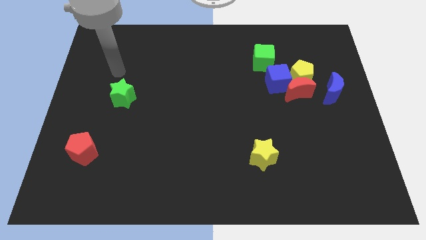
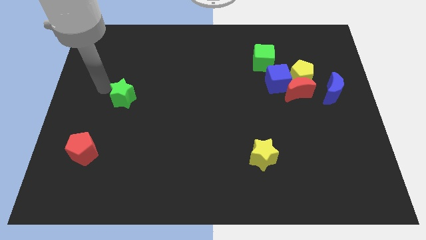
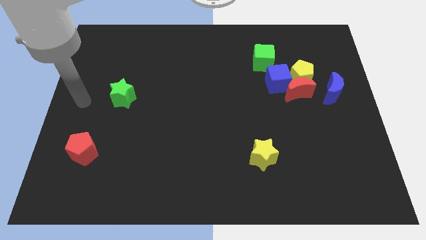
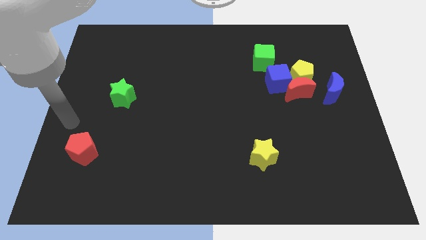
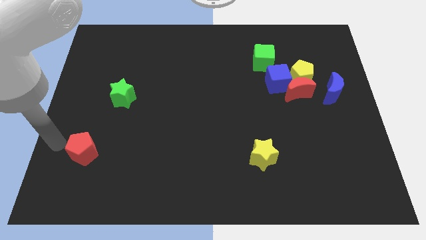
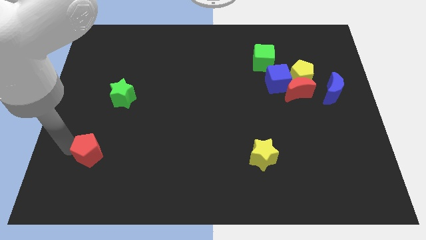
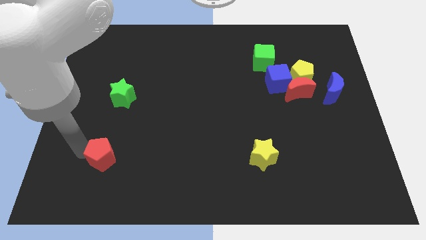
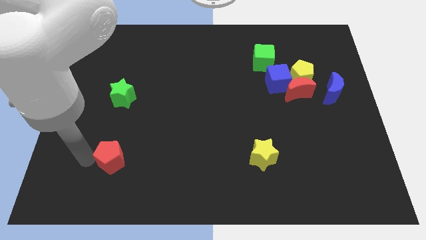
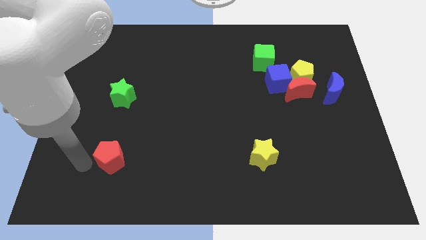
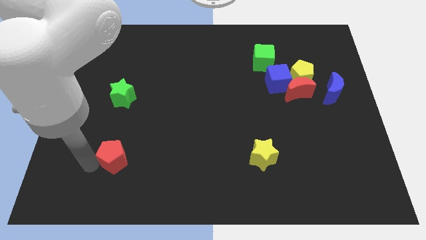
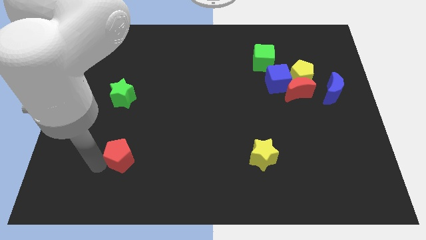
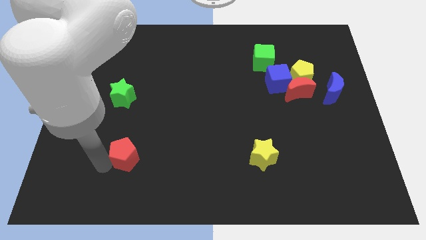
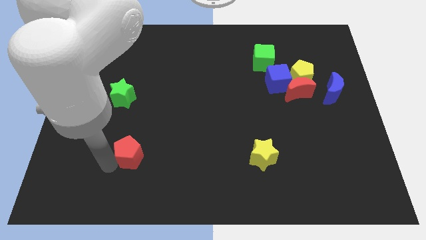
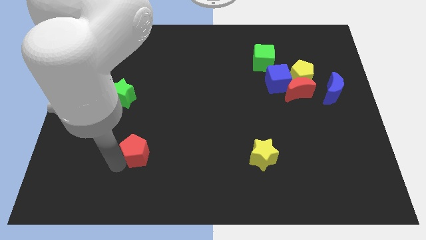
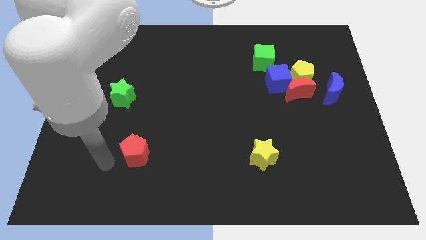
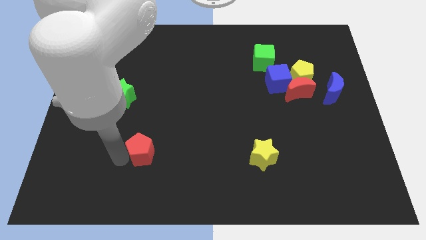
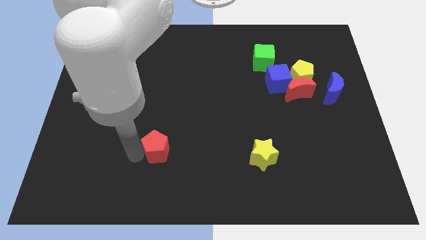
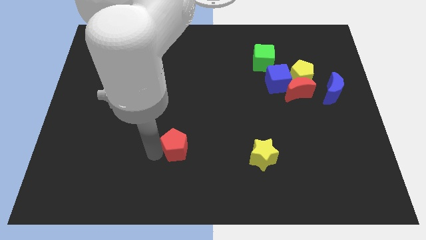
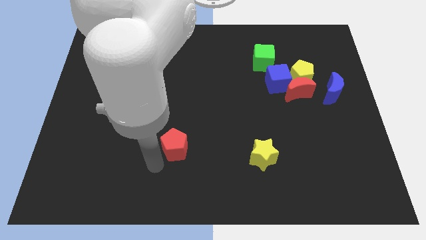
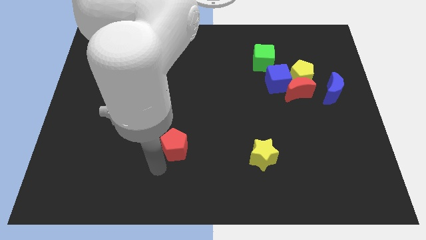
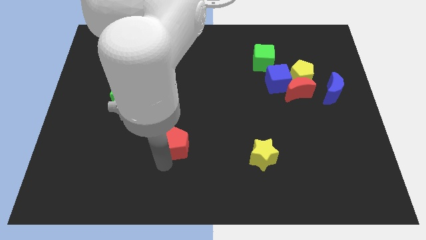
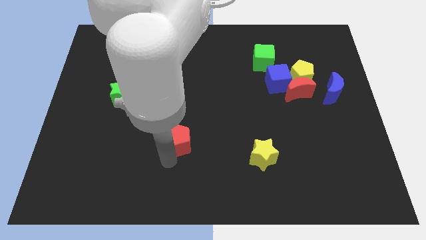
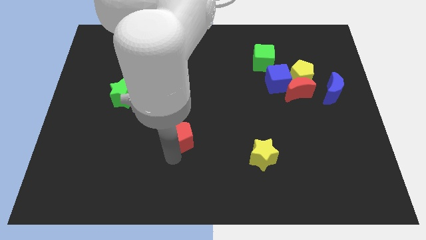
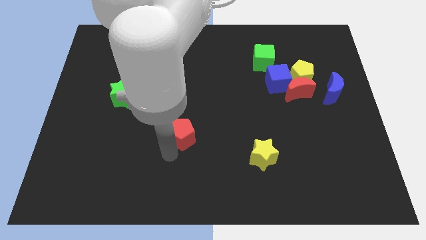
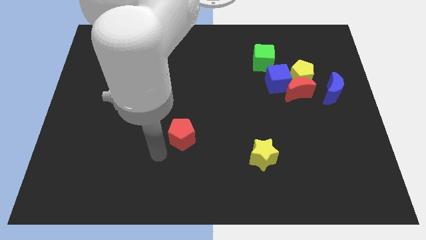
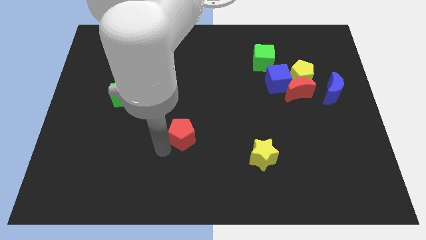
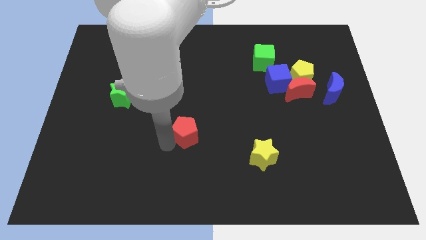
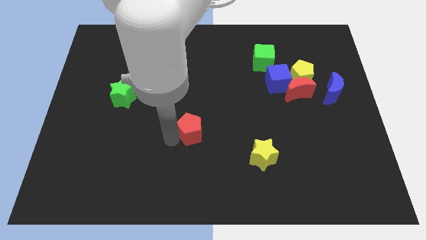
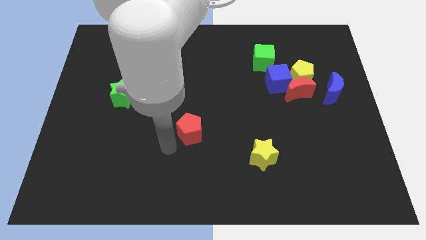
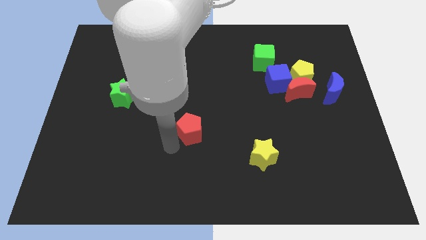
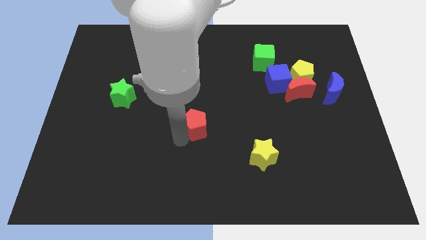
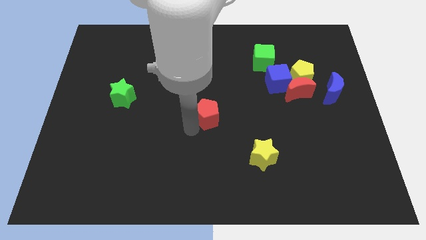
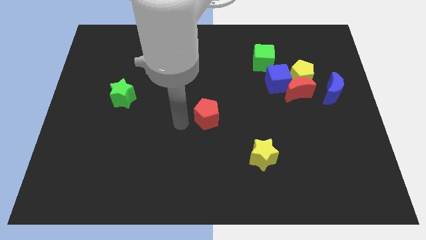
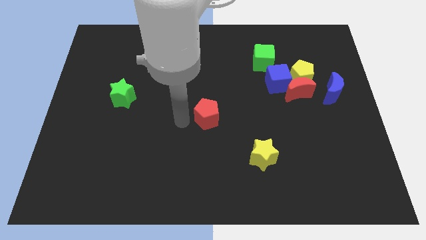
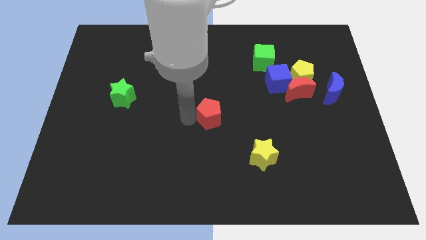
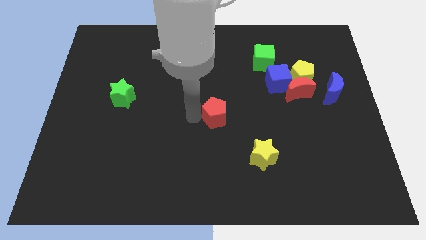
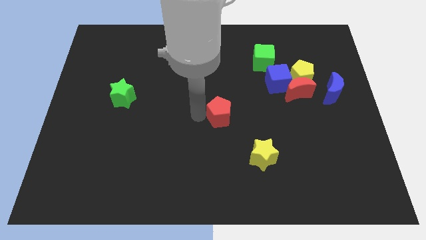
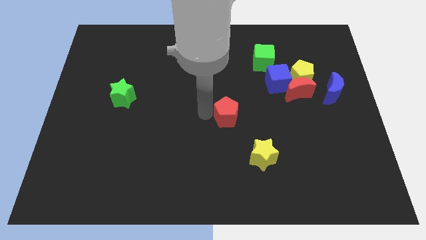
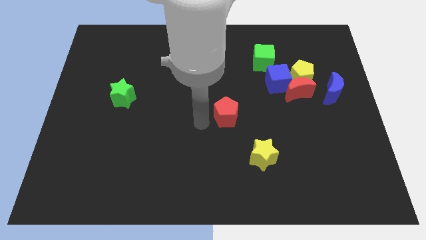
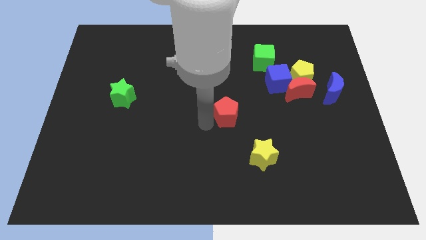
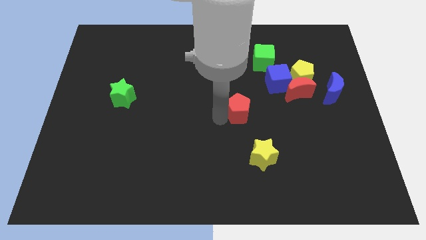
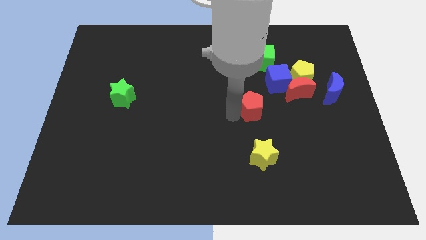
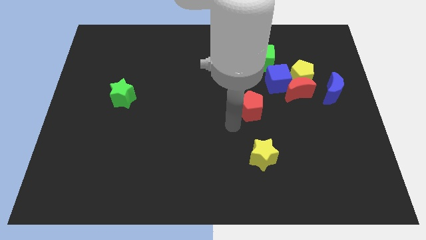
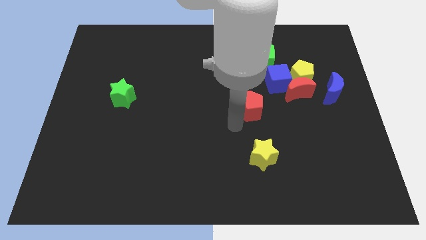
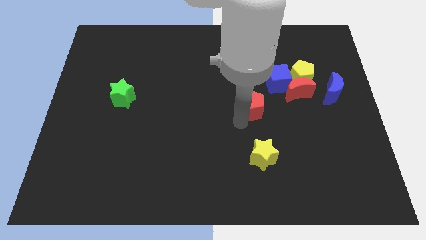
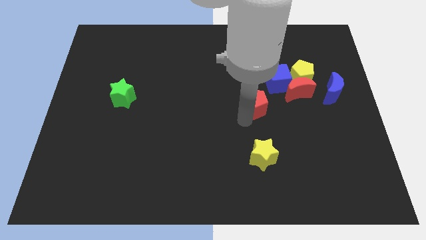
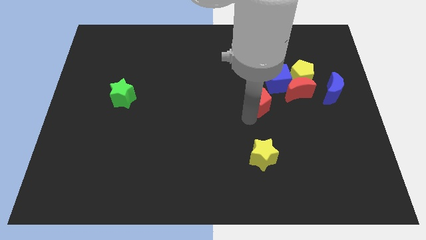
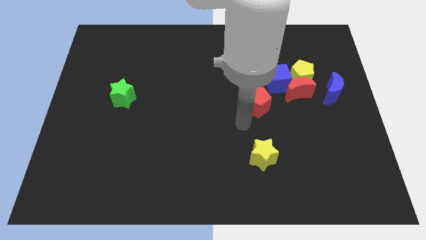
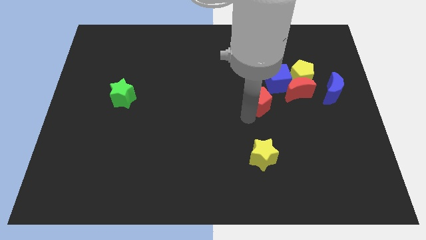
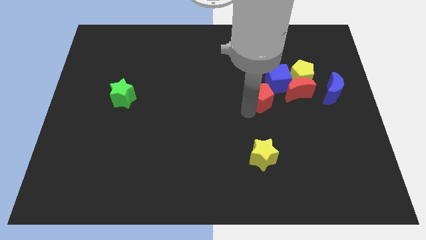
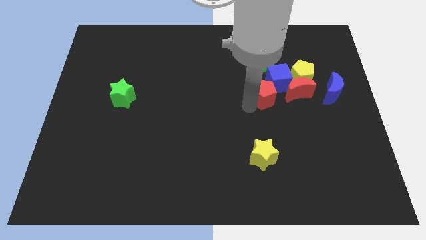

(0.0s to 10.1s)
move the red pentagon diagonally down and to the left of the yellow pentagon

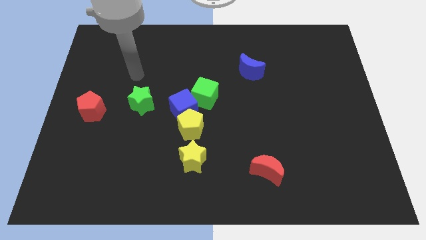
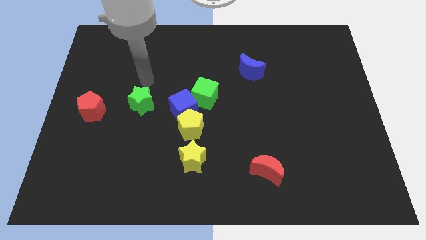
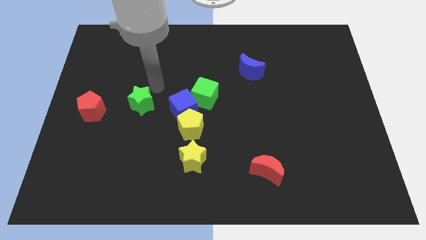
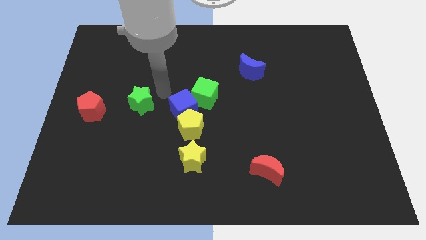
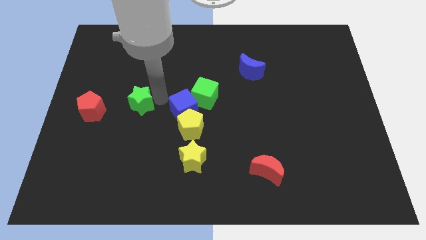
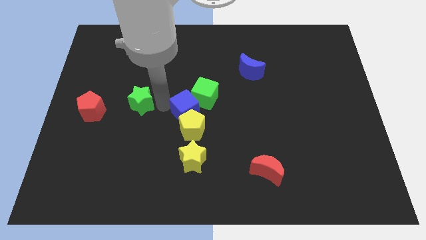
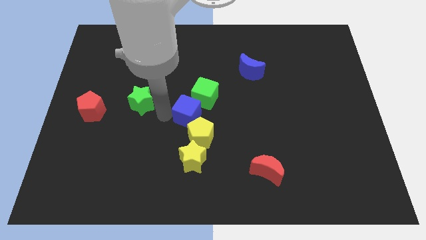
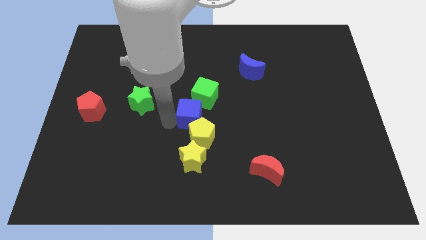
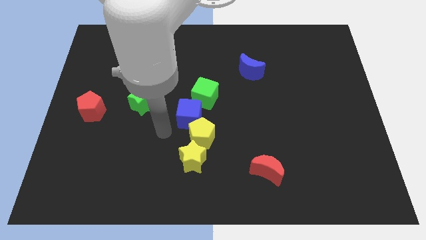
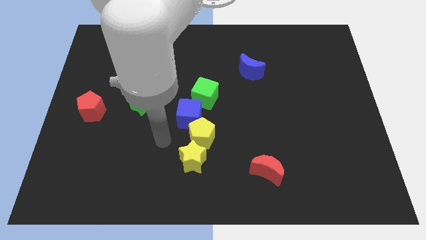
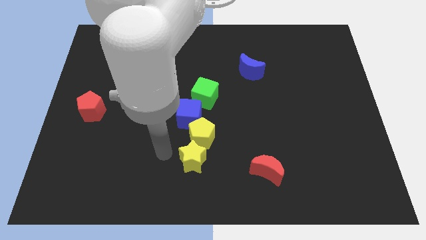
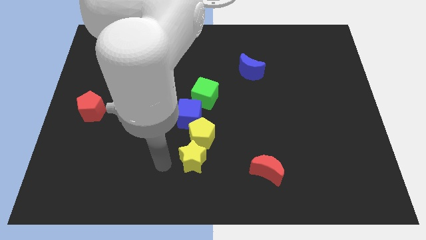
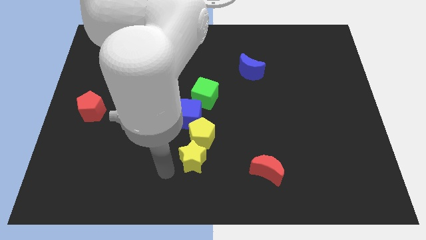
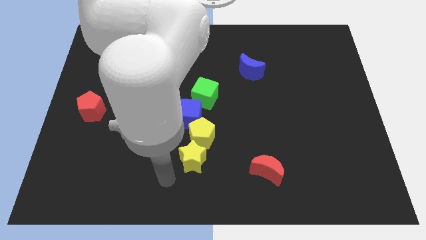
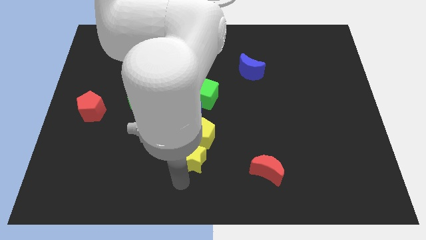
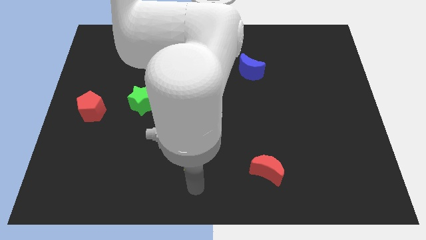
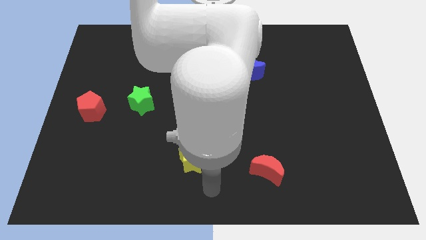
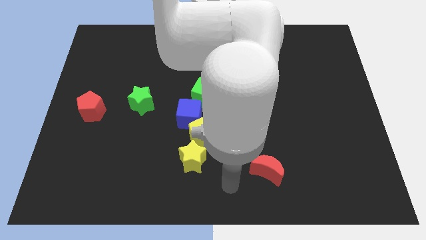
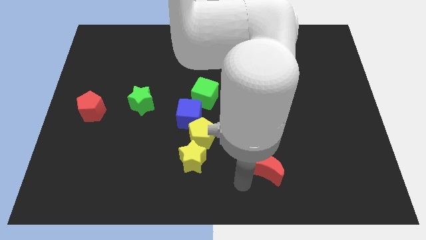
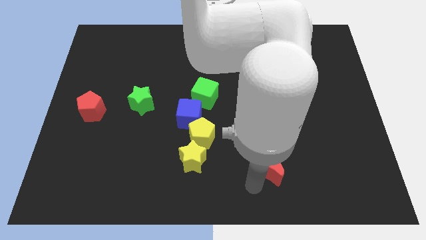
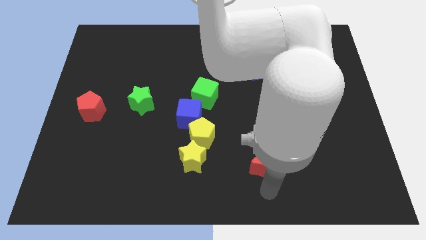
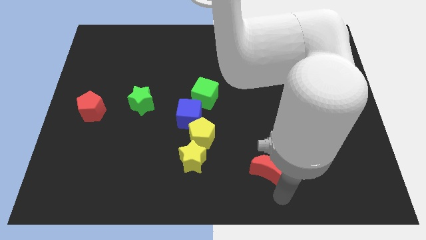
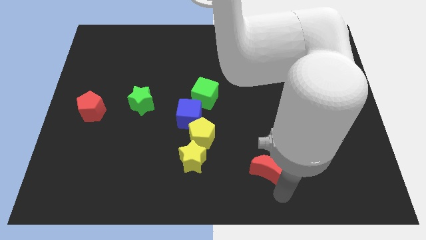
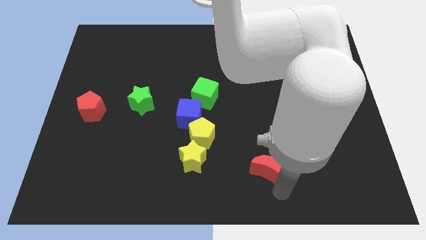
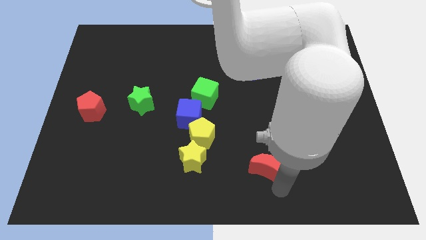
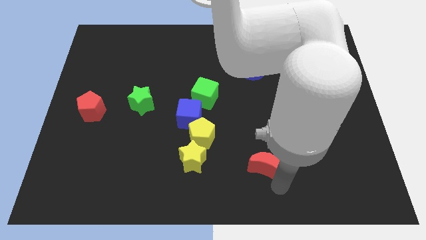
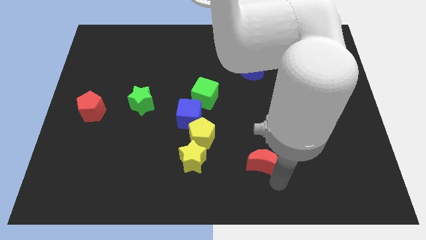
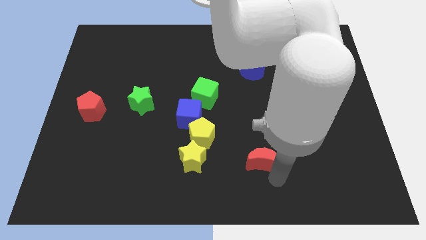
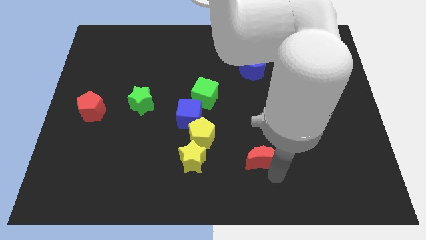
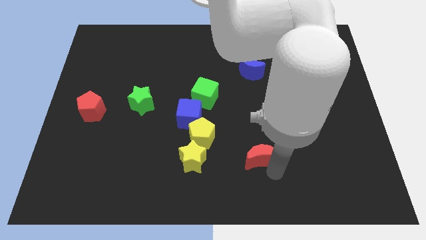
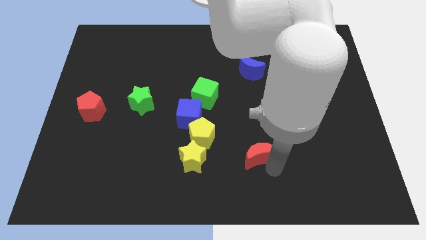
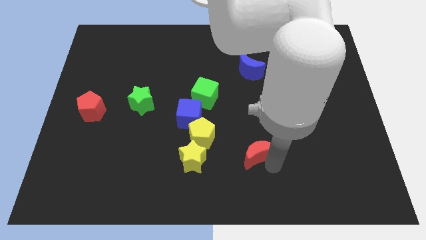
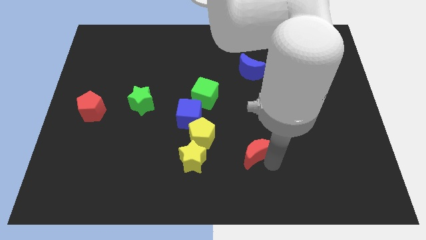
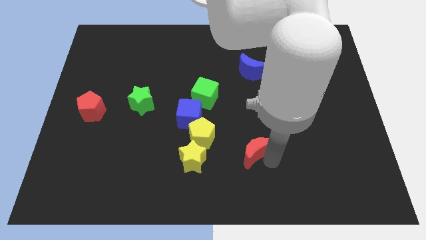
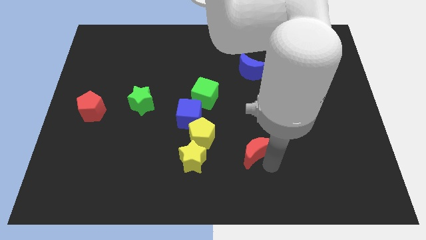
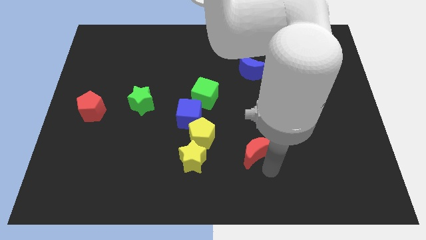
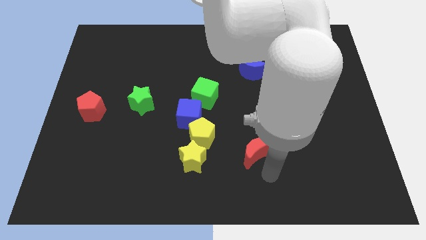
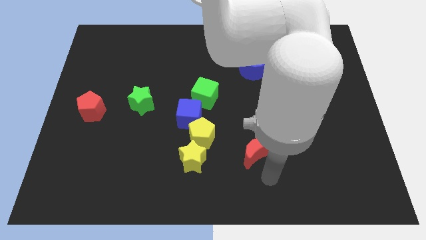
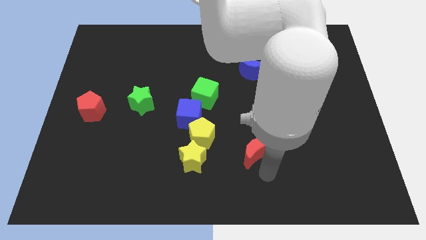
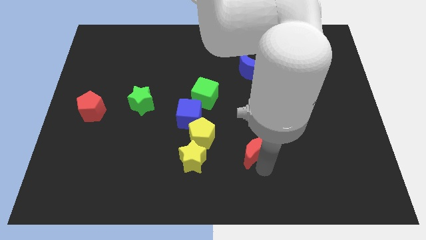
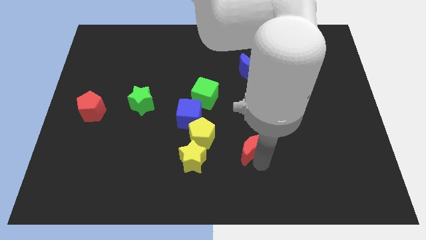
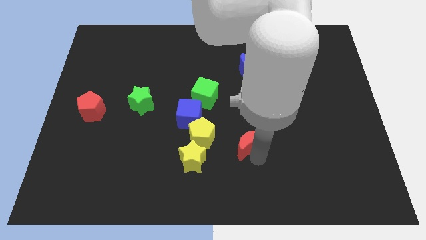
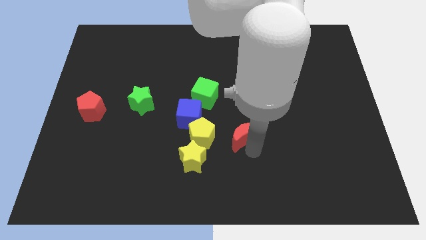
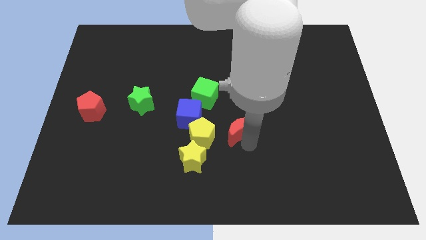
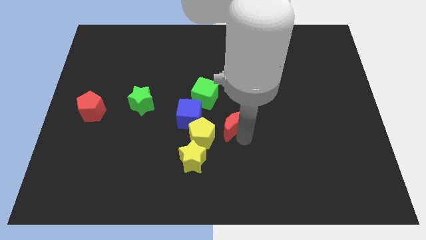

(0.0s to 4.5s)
slide the red moon to the bottom right side of the green cube
